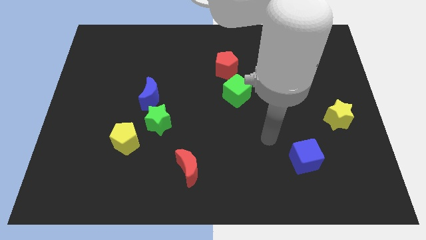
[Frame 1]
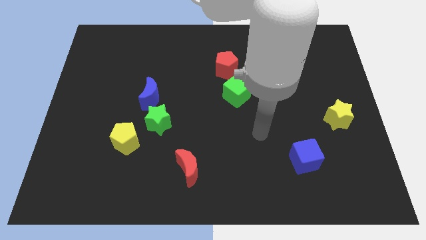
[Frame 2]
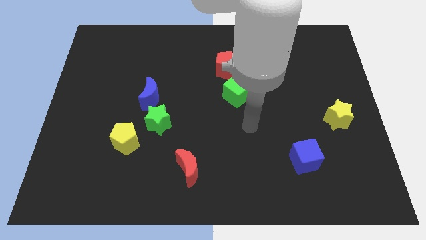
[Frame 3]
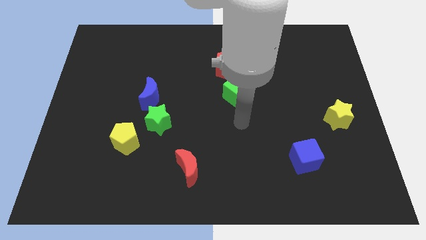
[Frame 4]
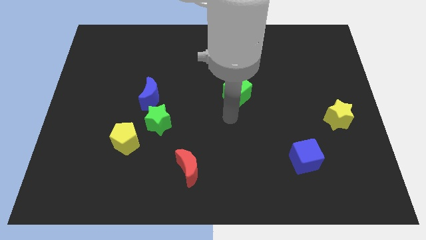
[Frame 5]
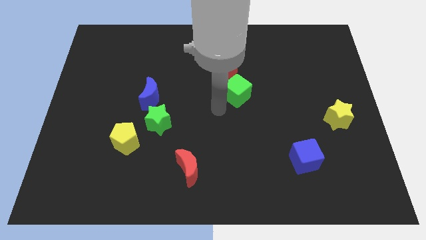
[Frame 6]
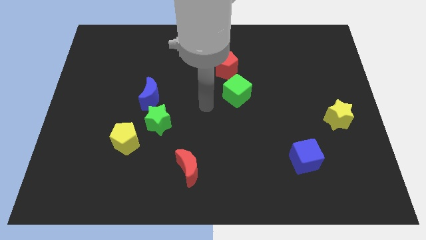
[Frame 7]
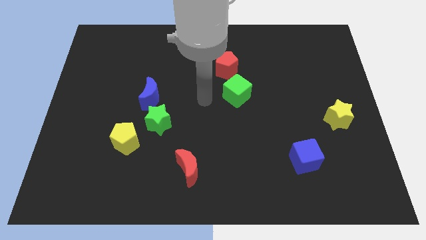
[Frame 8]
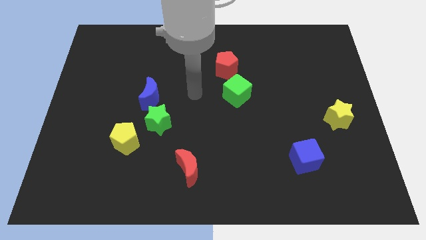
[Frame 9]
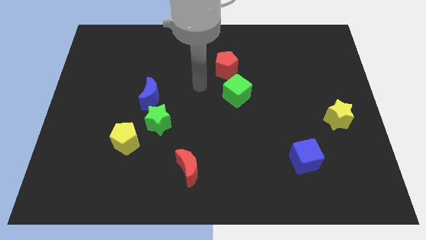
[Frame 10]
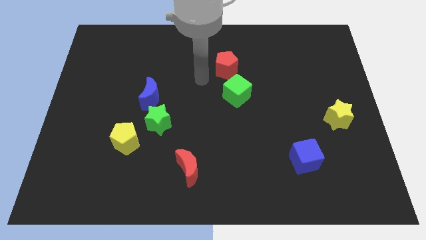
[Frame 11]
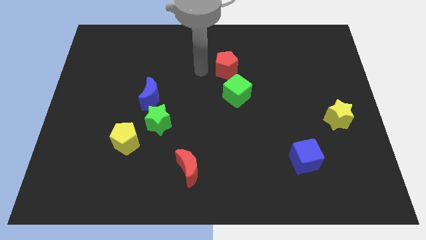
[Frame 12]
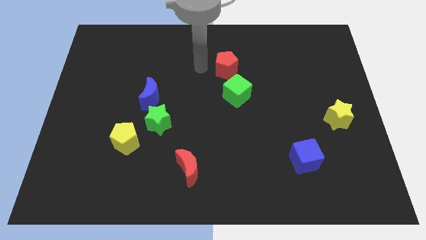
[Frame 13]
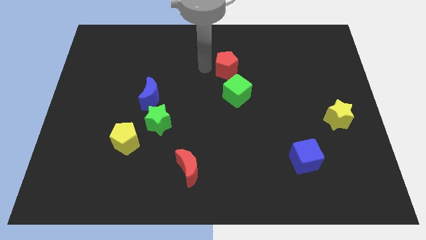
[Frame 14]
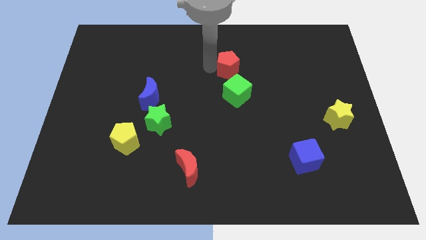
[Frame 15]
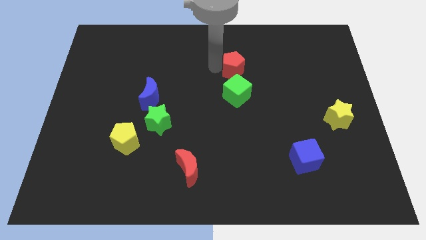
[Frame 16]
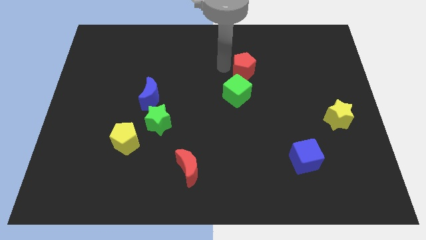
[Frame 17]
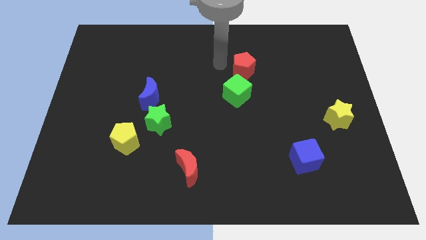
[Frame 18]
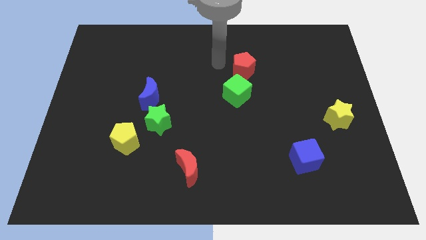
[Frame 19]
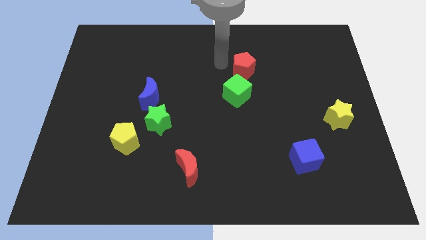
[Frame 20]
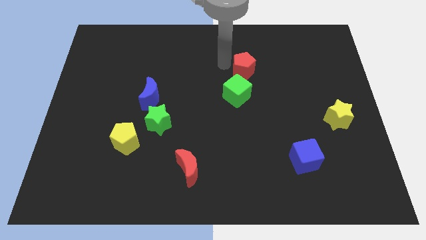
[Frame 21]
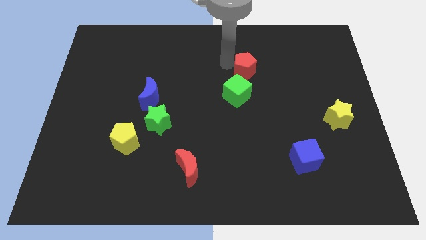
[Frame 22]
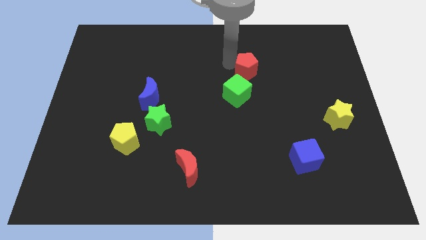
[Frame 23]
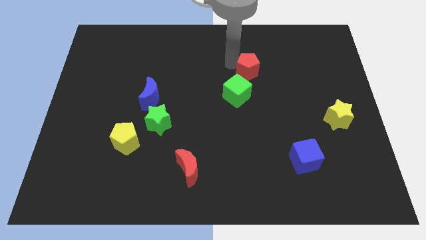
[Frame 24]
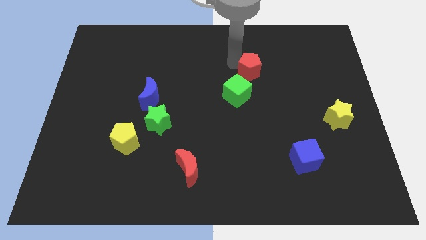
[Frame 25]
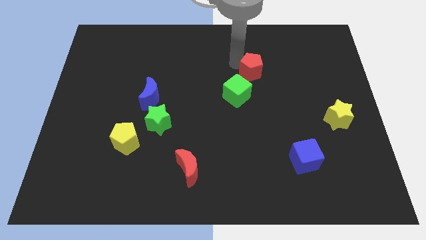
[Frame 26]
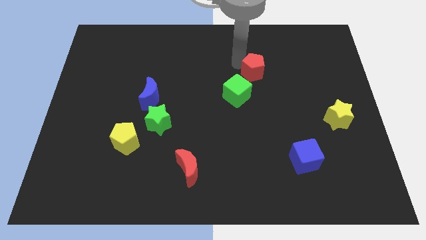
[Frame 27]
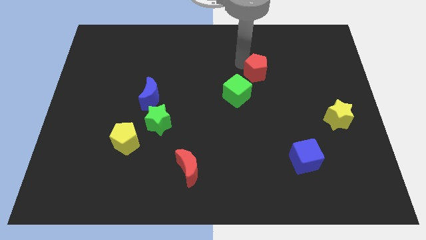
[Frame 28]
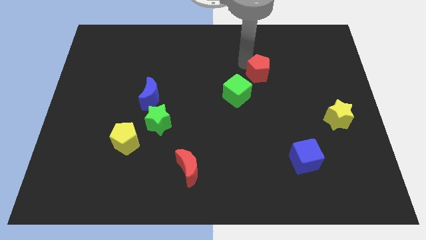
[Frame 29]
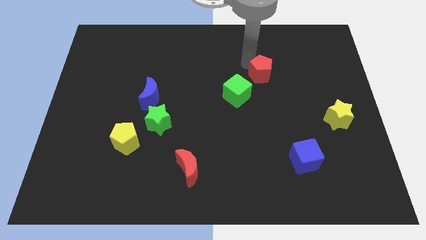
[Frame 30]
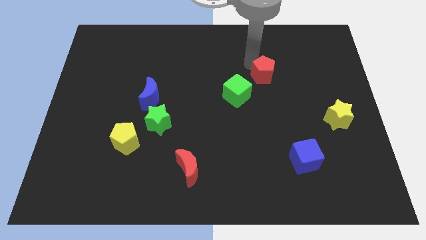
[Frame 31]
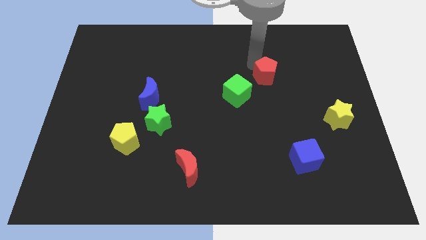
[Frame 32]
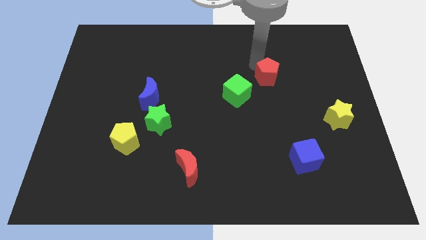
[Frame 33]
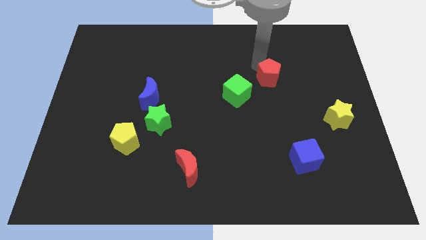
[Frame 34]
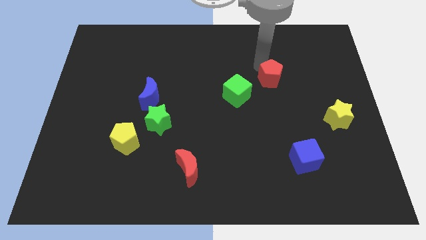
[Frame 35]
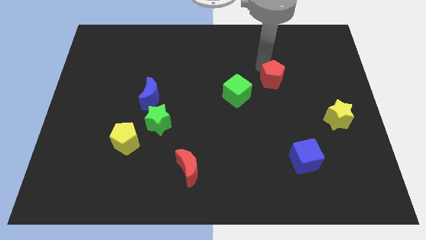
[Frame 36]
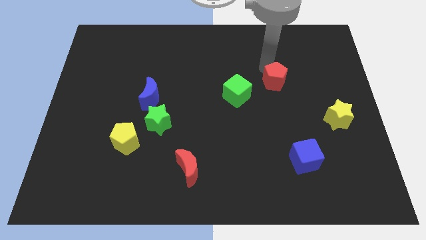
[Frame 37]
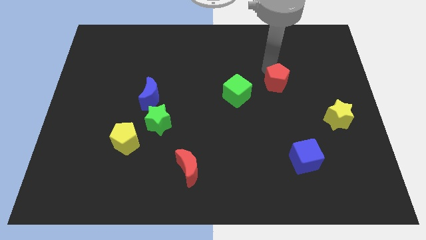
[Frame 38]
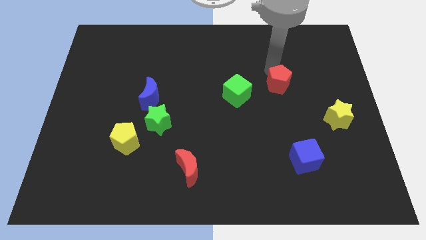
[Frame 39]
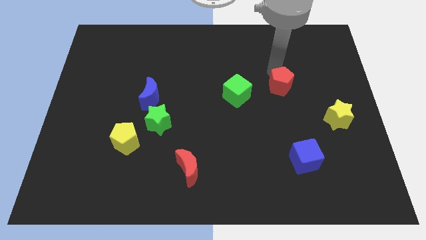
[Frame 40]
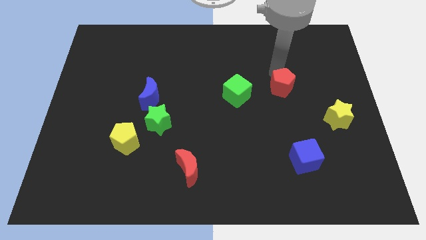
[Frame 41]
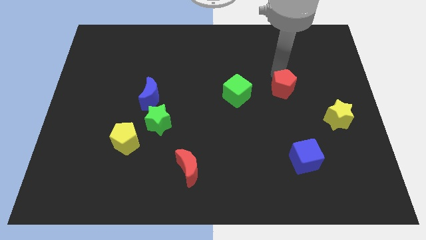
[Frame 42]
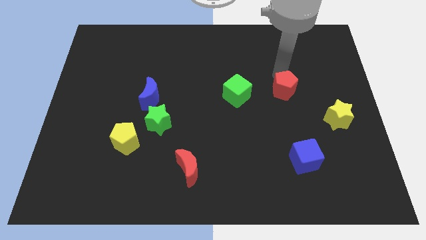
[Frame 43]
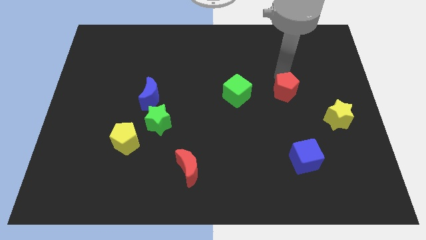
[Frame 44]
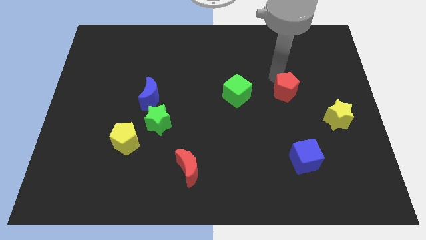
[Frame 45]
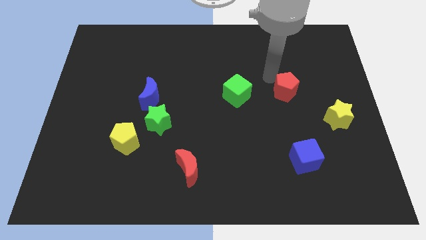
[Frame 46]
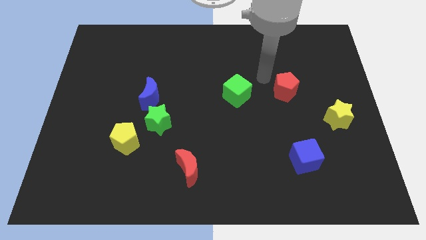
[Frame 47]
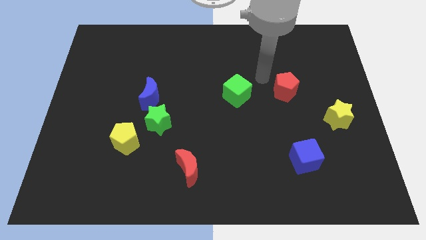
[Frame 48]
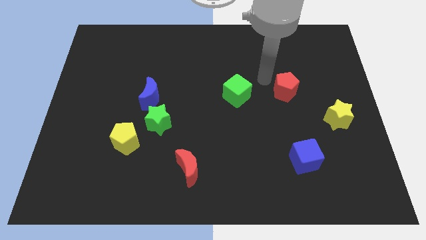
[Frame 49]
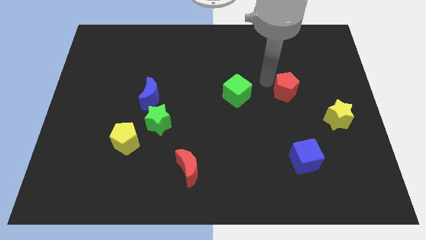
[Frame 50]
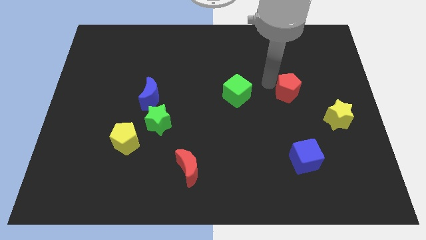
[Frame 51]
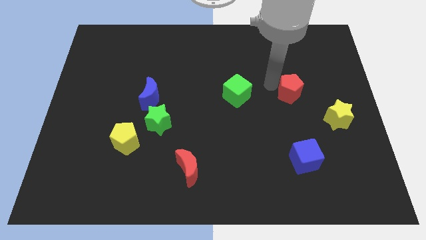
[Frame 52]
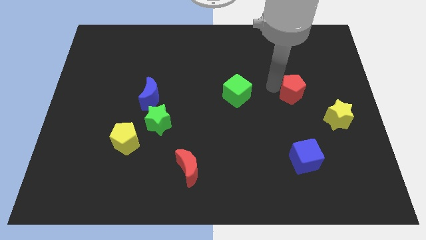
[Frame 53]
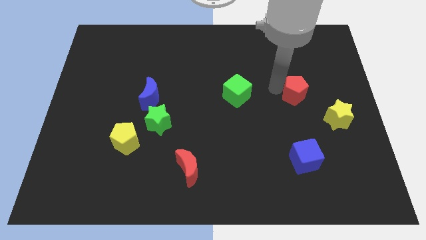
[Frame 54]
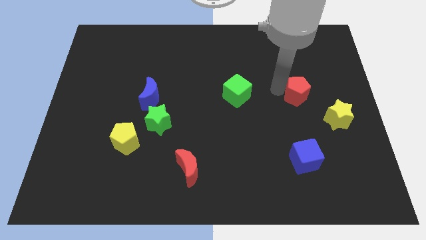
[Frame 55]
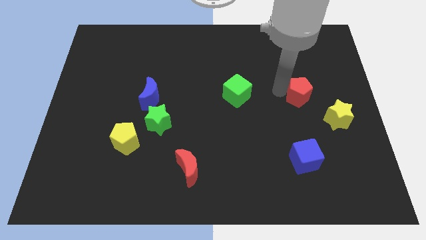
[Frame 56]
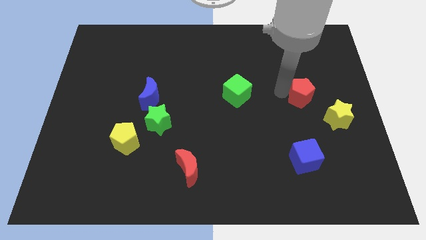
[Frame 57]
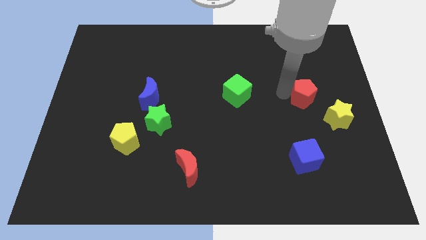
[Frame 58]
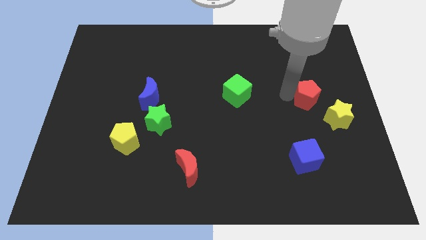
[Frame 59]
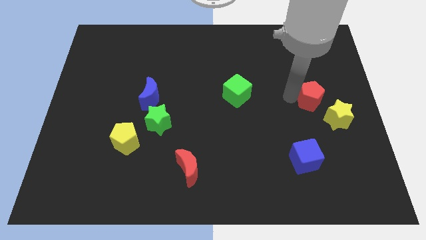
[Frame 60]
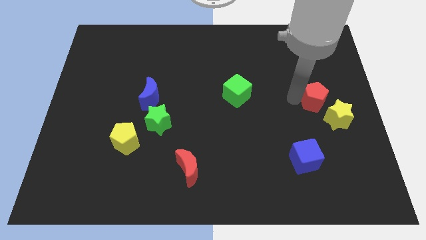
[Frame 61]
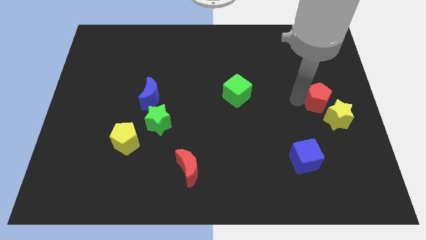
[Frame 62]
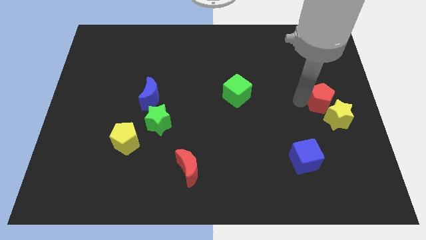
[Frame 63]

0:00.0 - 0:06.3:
put the red pentagon towards the yellow star

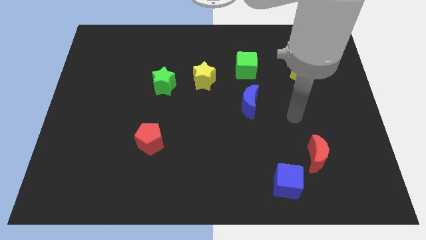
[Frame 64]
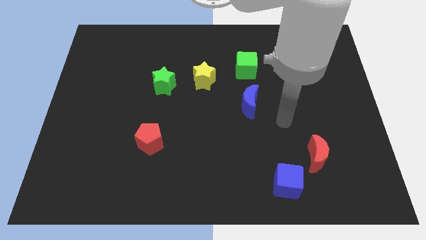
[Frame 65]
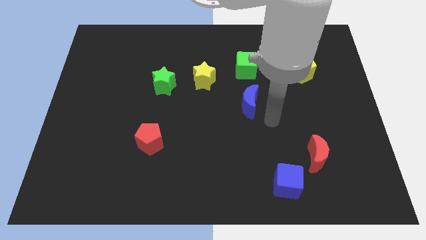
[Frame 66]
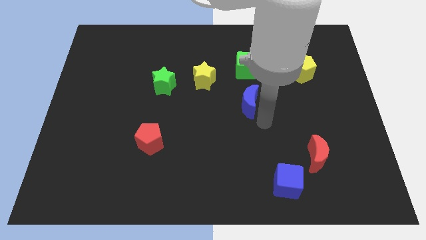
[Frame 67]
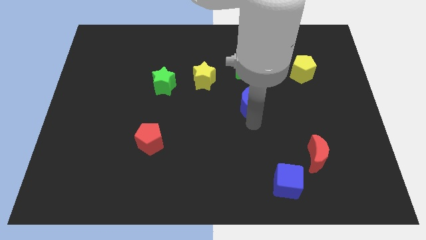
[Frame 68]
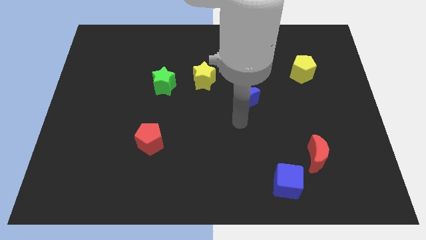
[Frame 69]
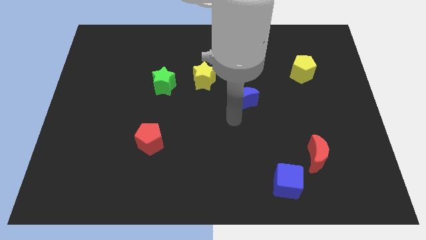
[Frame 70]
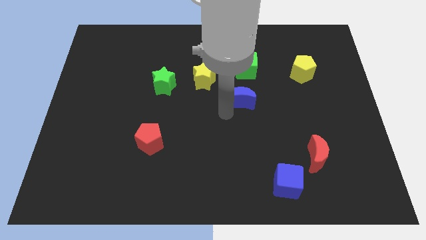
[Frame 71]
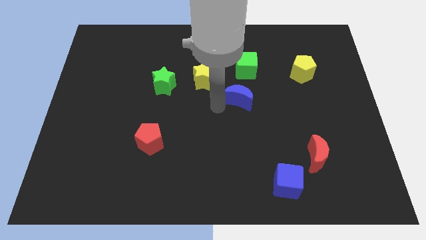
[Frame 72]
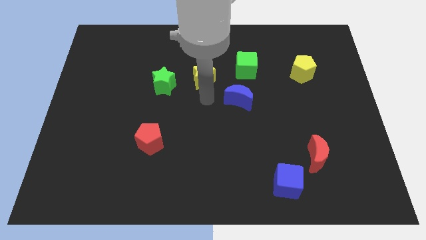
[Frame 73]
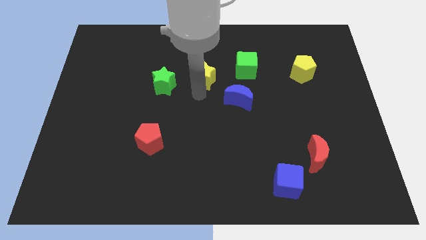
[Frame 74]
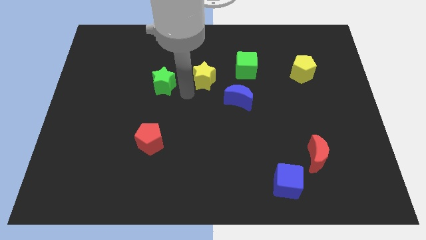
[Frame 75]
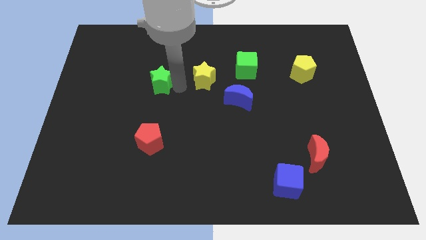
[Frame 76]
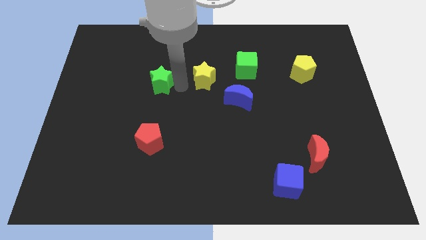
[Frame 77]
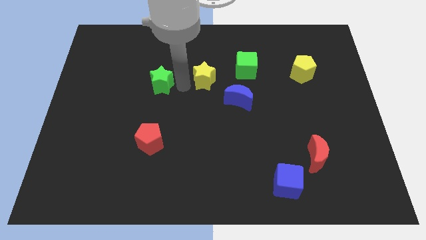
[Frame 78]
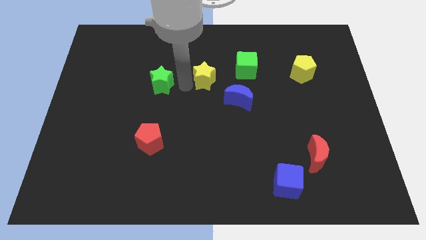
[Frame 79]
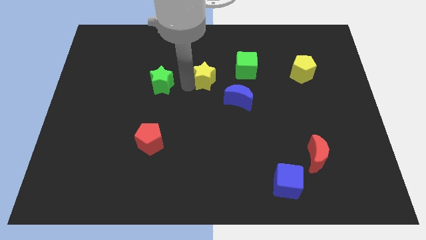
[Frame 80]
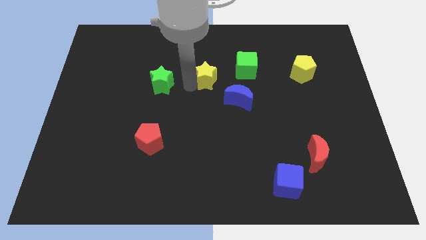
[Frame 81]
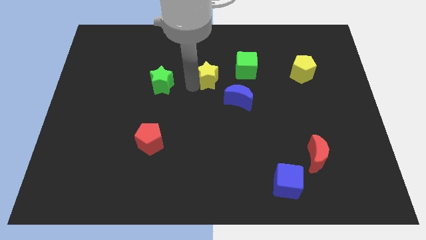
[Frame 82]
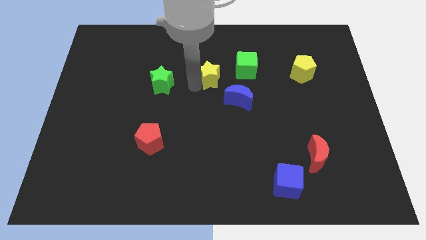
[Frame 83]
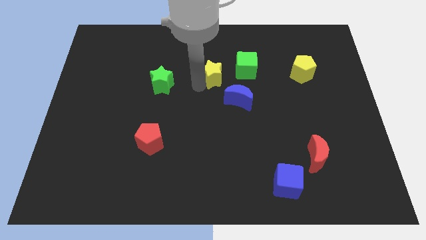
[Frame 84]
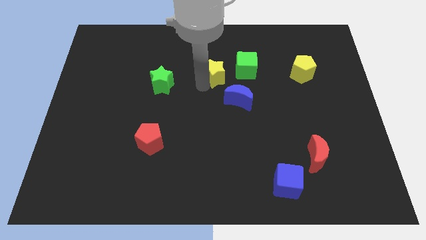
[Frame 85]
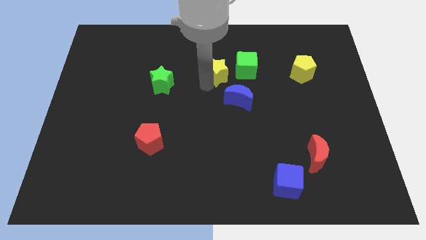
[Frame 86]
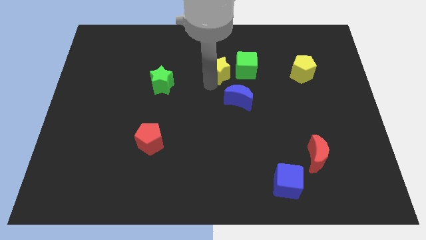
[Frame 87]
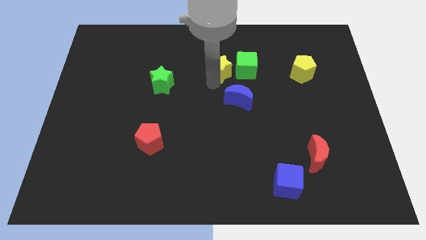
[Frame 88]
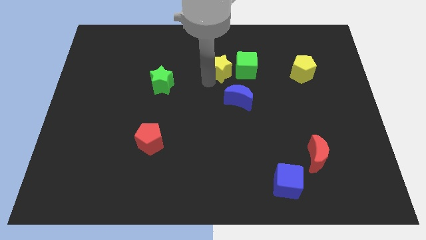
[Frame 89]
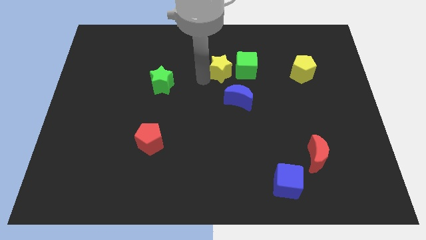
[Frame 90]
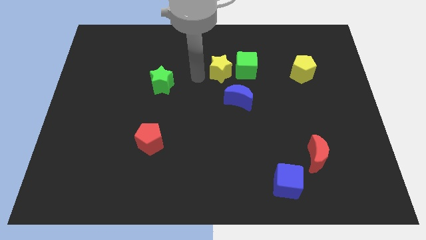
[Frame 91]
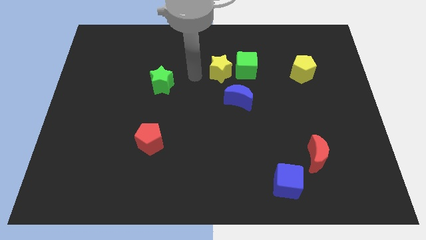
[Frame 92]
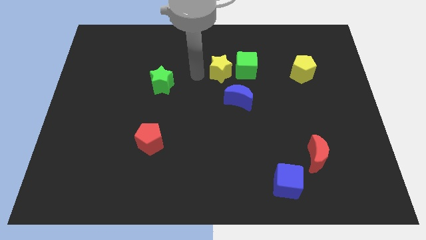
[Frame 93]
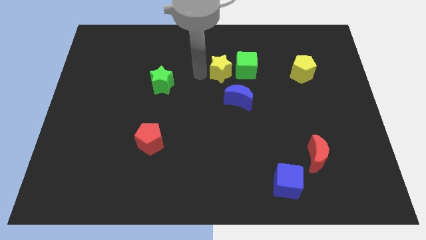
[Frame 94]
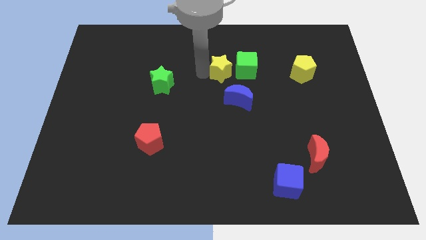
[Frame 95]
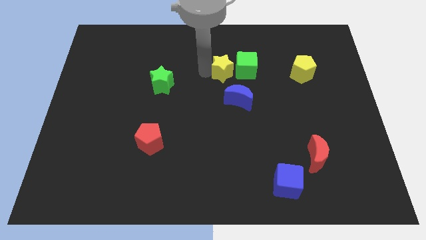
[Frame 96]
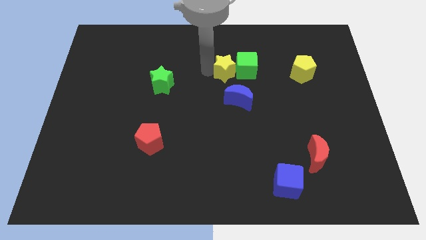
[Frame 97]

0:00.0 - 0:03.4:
put the yellow star next to the green cube
